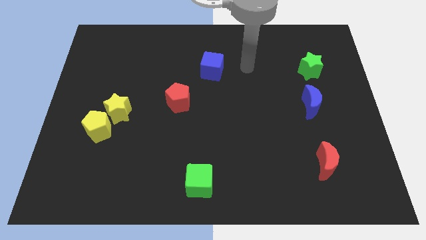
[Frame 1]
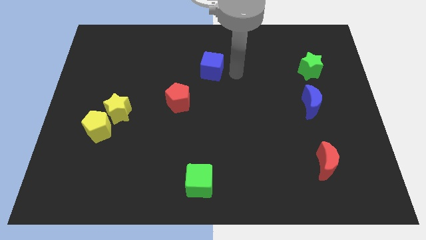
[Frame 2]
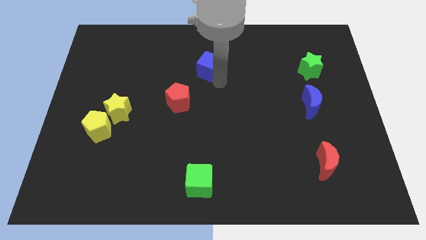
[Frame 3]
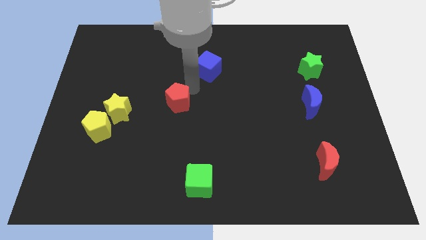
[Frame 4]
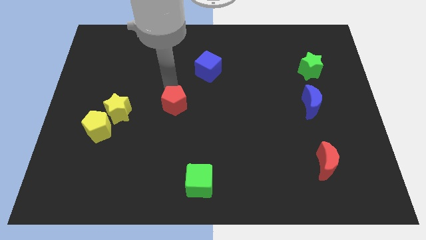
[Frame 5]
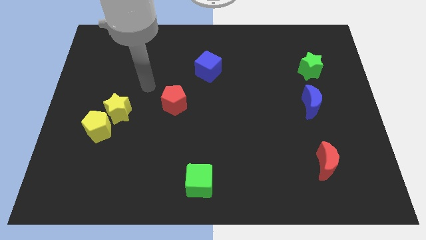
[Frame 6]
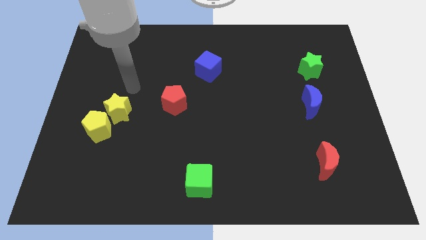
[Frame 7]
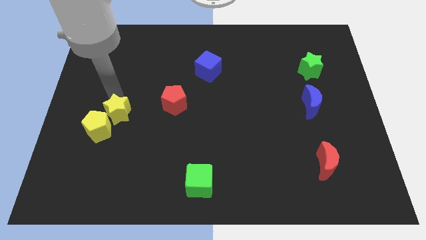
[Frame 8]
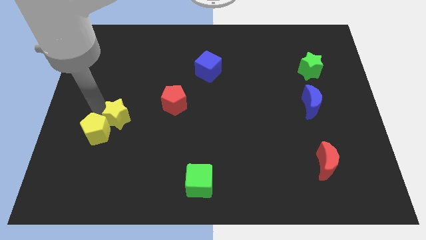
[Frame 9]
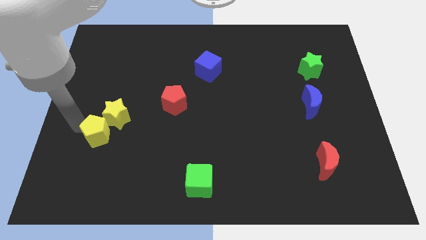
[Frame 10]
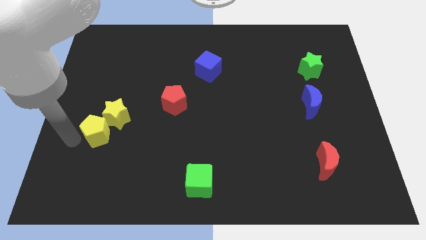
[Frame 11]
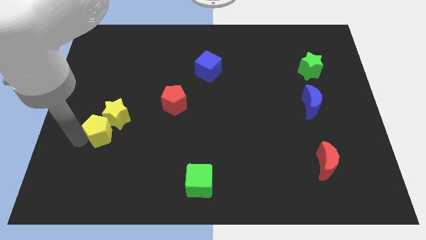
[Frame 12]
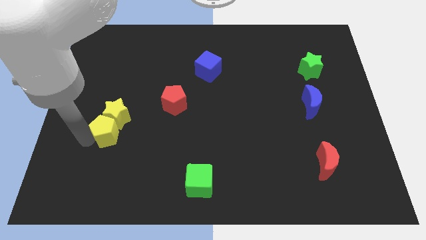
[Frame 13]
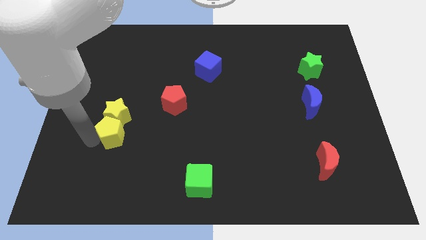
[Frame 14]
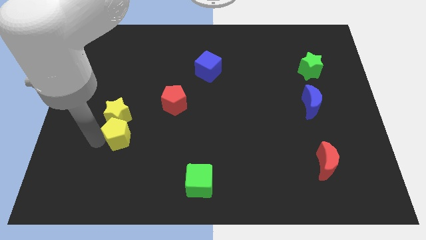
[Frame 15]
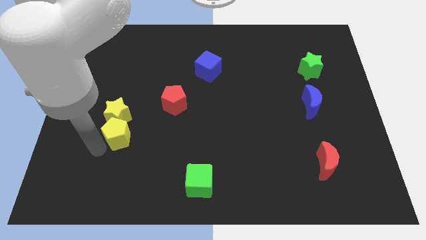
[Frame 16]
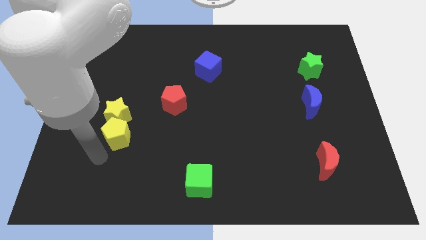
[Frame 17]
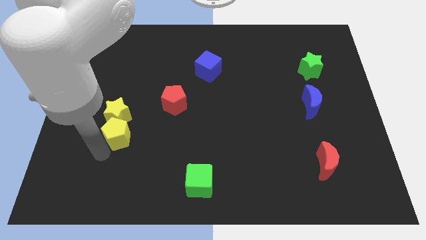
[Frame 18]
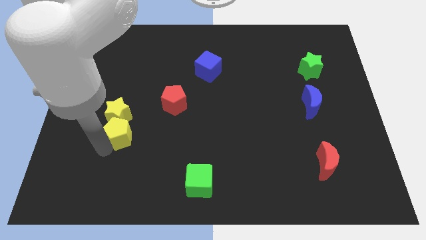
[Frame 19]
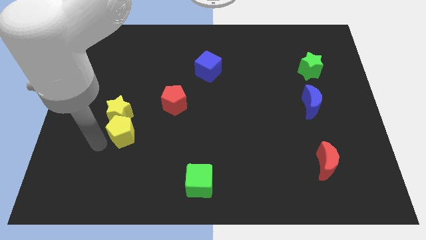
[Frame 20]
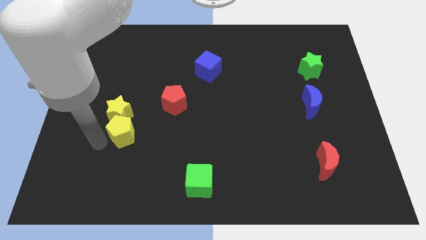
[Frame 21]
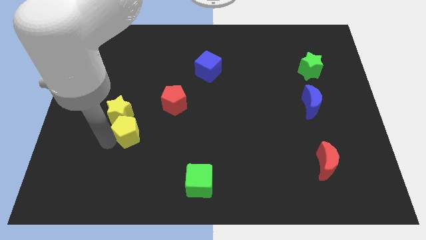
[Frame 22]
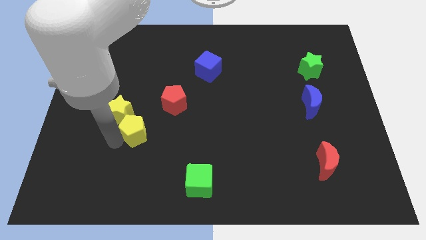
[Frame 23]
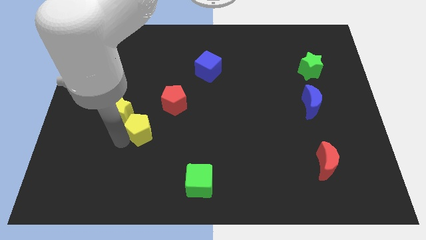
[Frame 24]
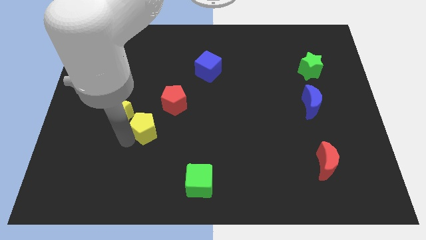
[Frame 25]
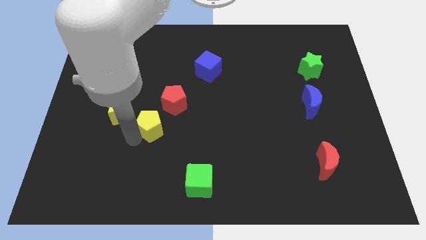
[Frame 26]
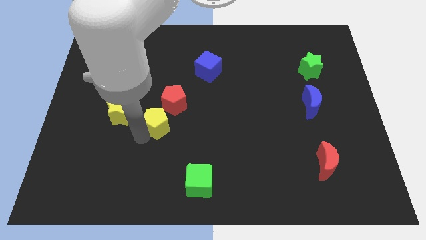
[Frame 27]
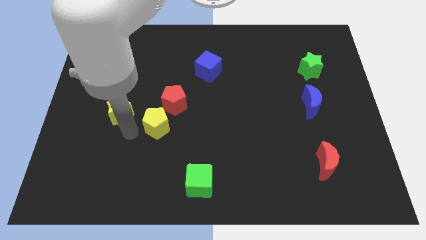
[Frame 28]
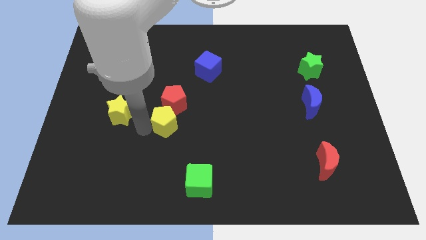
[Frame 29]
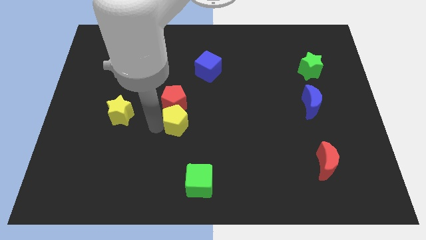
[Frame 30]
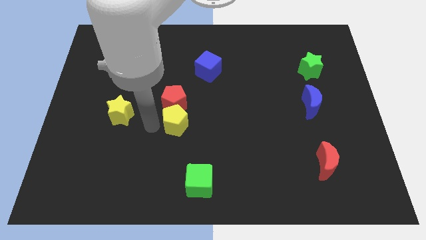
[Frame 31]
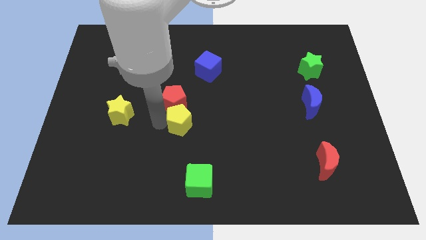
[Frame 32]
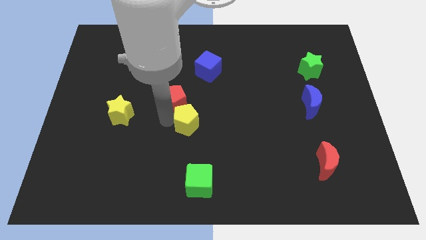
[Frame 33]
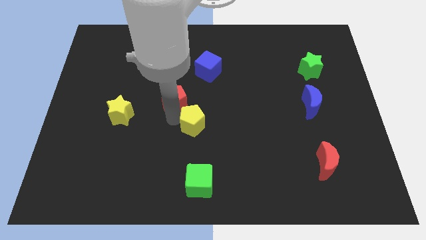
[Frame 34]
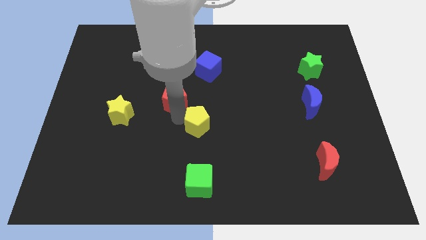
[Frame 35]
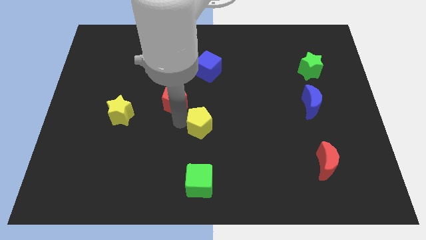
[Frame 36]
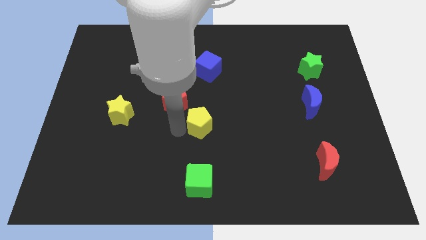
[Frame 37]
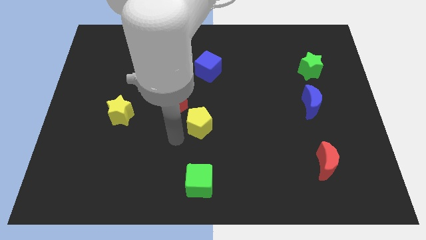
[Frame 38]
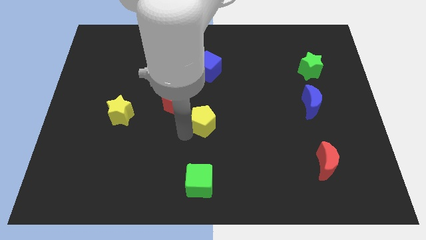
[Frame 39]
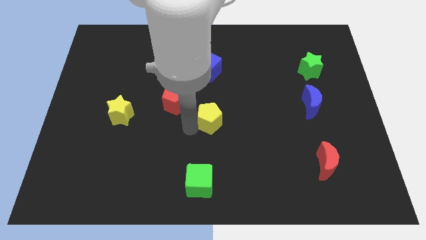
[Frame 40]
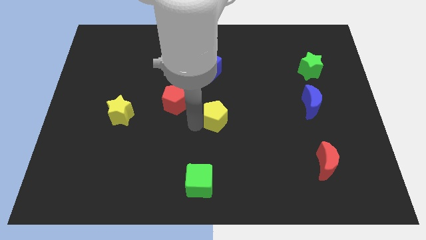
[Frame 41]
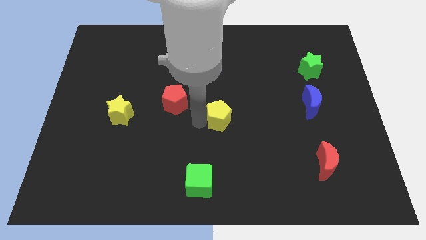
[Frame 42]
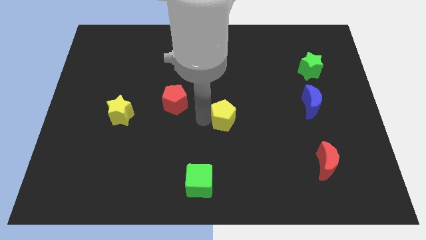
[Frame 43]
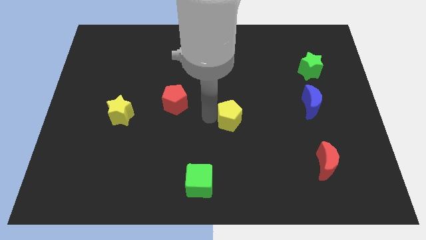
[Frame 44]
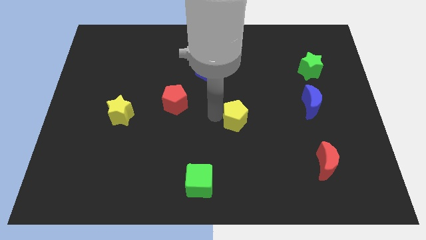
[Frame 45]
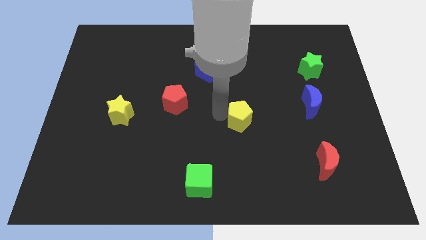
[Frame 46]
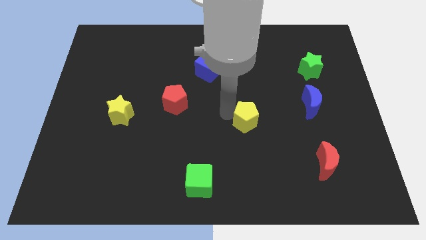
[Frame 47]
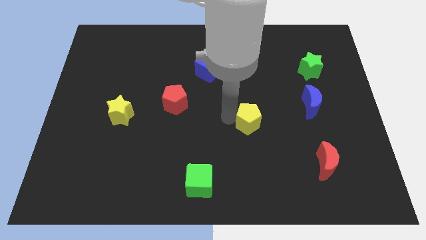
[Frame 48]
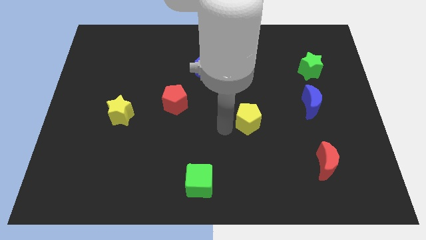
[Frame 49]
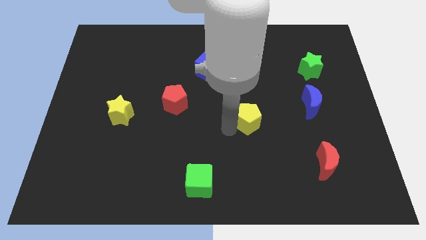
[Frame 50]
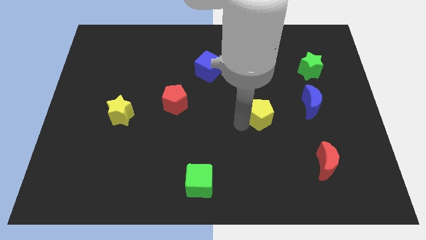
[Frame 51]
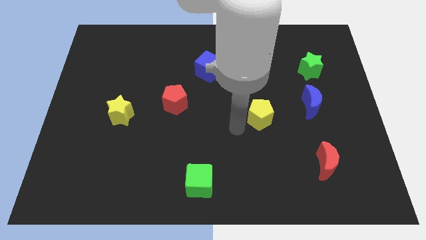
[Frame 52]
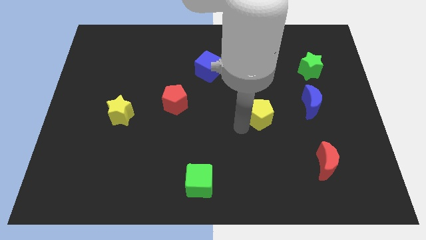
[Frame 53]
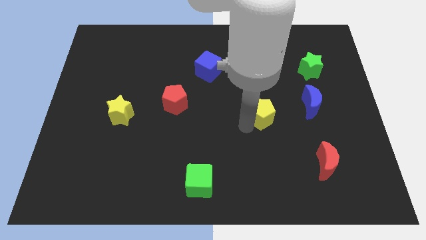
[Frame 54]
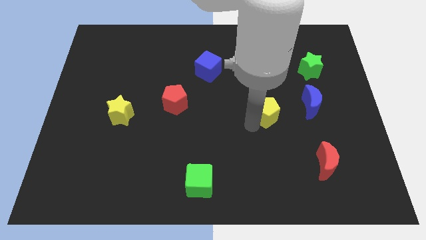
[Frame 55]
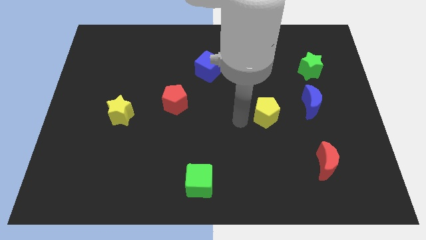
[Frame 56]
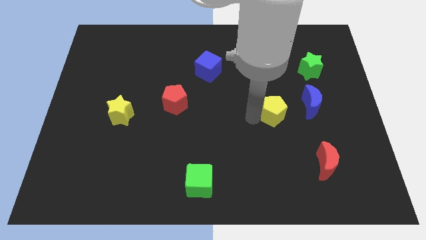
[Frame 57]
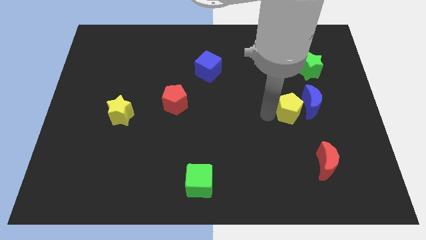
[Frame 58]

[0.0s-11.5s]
move the yellow pentagon towards the blue moon
